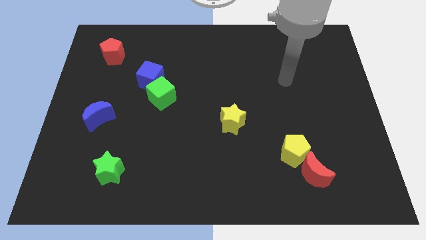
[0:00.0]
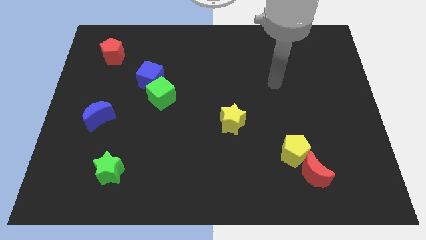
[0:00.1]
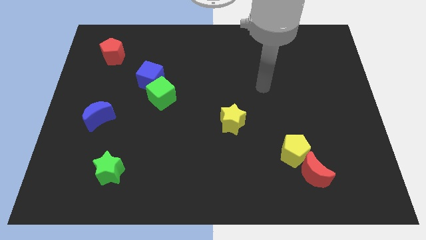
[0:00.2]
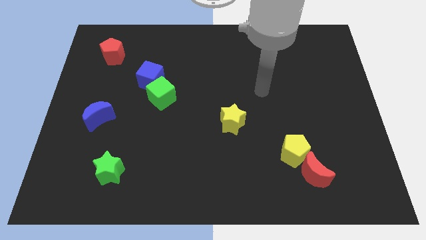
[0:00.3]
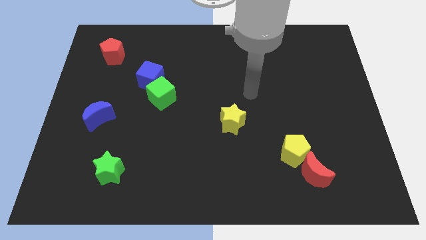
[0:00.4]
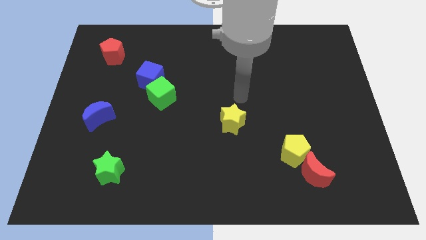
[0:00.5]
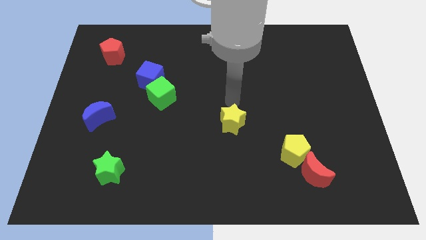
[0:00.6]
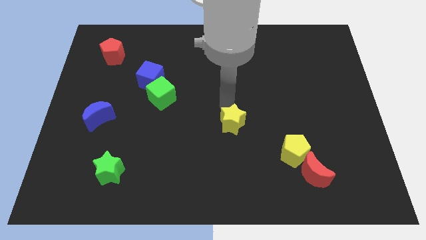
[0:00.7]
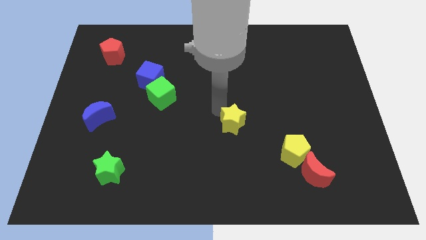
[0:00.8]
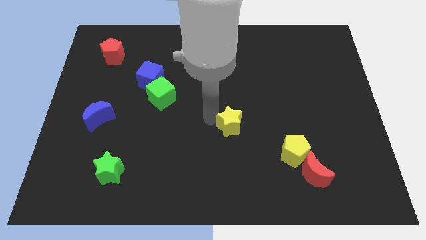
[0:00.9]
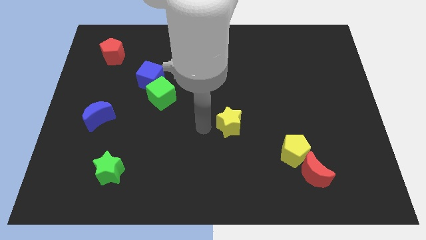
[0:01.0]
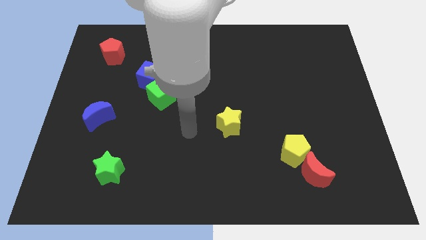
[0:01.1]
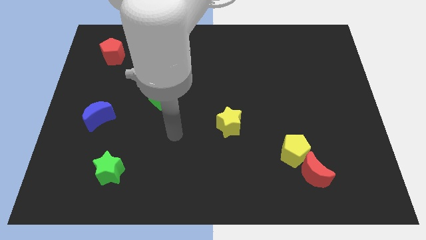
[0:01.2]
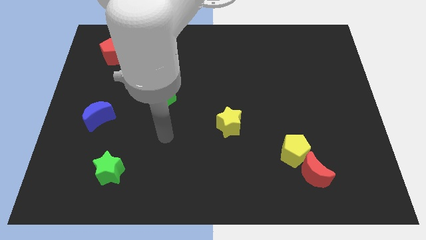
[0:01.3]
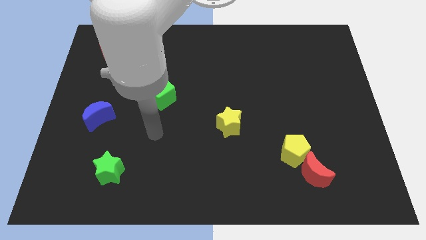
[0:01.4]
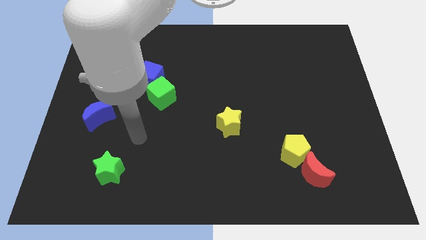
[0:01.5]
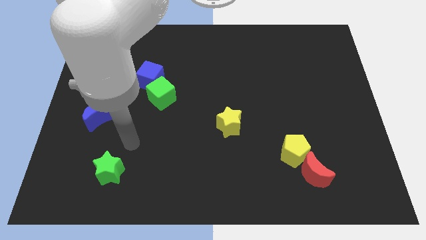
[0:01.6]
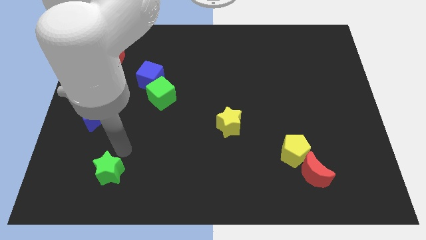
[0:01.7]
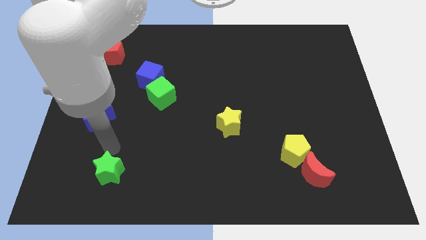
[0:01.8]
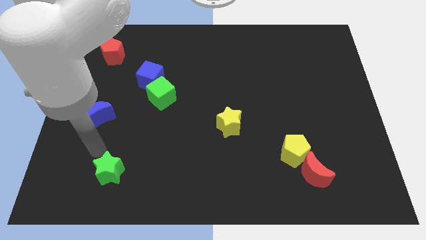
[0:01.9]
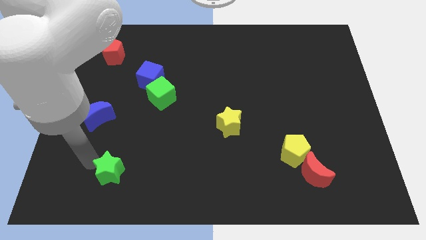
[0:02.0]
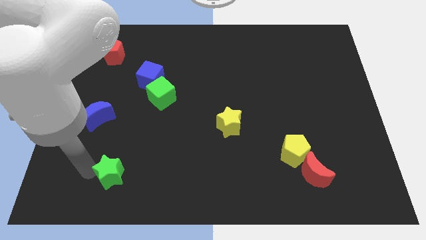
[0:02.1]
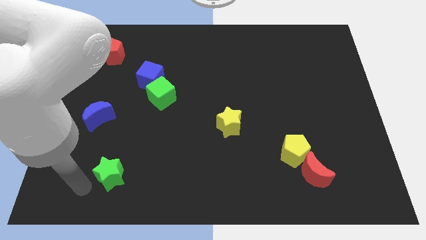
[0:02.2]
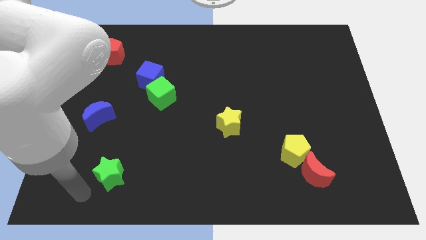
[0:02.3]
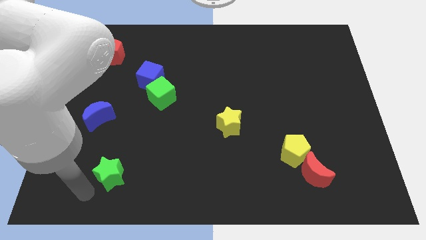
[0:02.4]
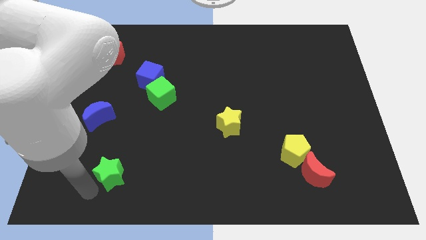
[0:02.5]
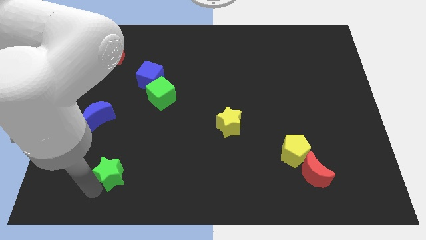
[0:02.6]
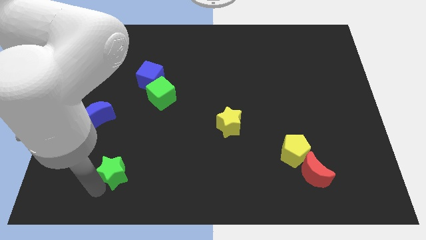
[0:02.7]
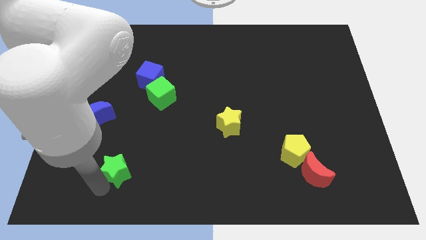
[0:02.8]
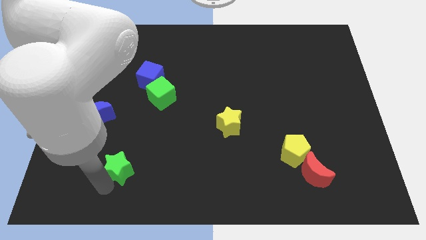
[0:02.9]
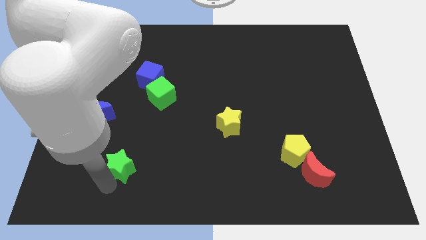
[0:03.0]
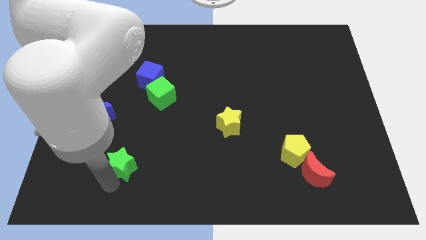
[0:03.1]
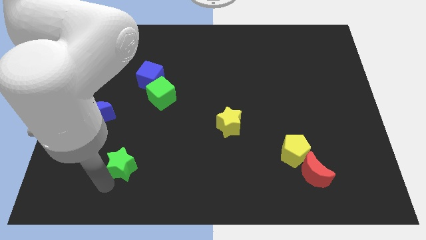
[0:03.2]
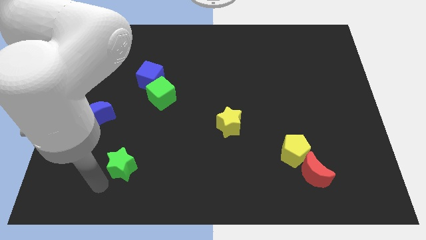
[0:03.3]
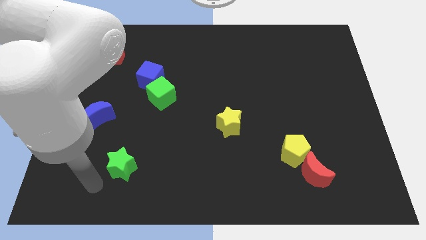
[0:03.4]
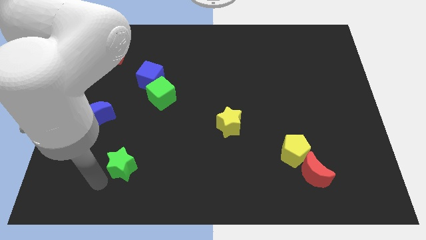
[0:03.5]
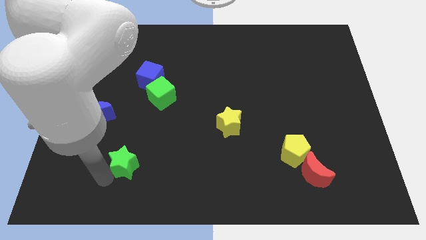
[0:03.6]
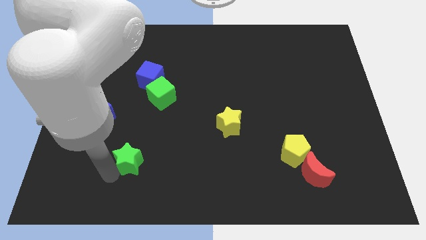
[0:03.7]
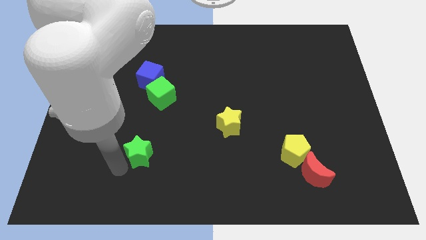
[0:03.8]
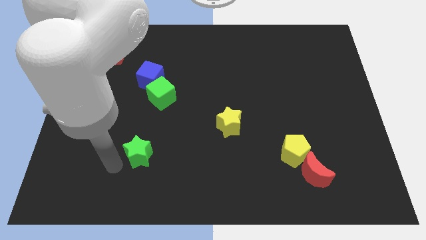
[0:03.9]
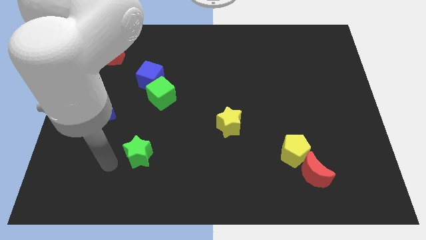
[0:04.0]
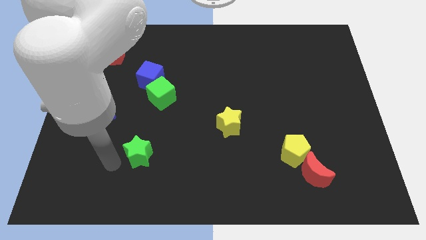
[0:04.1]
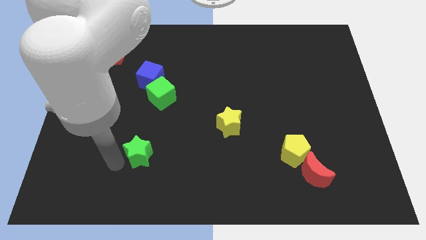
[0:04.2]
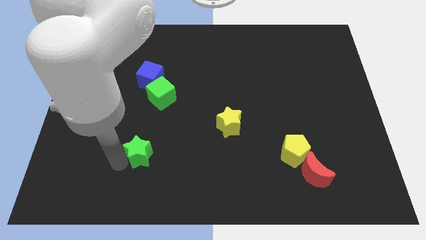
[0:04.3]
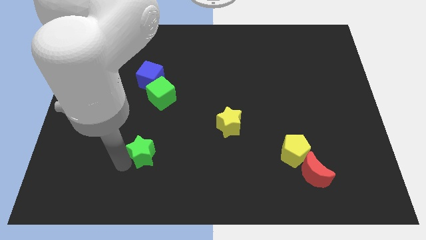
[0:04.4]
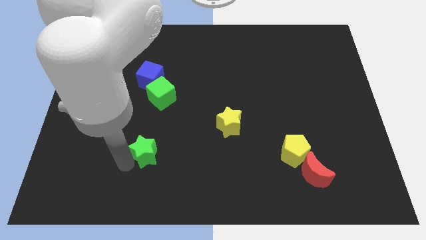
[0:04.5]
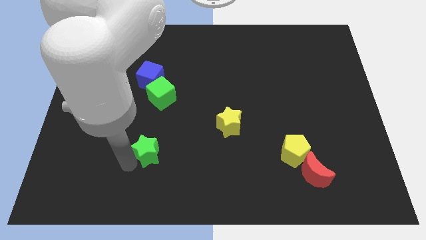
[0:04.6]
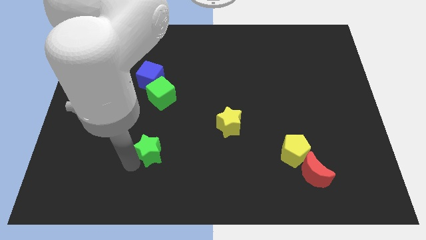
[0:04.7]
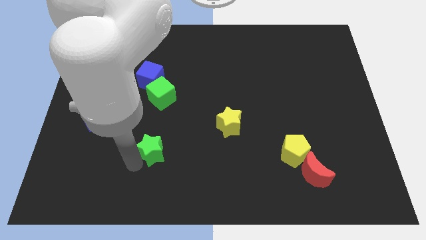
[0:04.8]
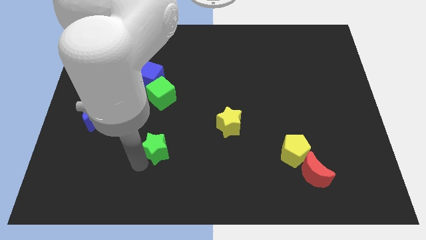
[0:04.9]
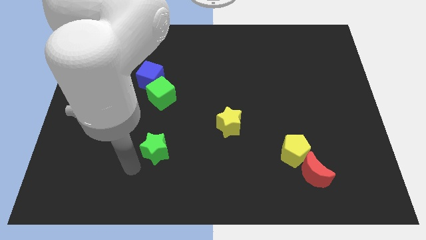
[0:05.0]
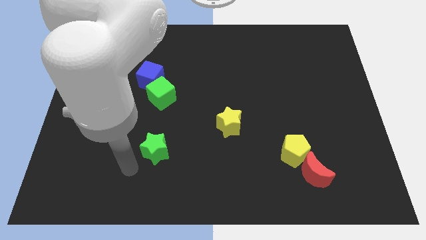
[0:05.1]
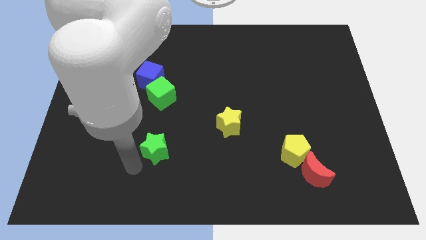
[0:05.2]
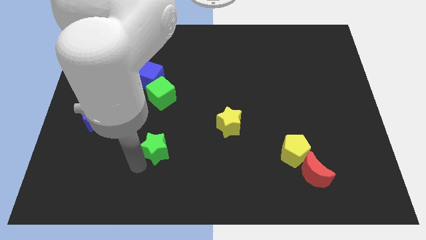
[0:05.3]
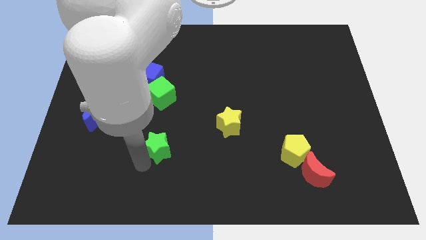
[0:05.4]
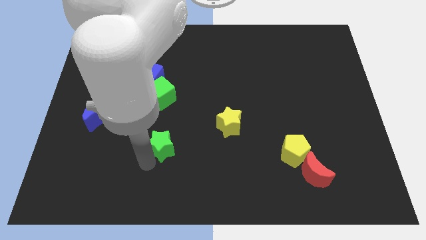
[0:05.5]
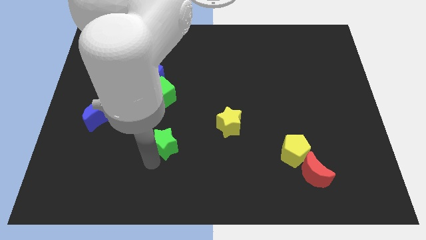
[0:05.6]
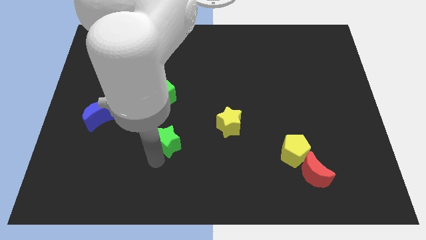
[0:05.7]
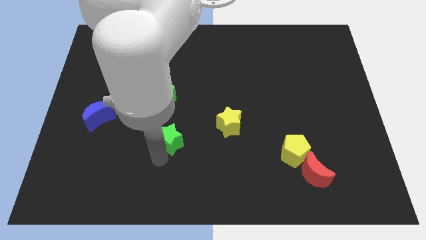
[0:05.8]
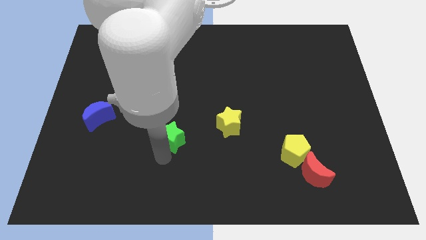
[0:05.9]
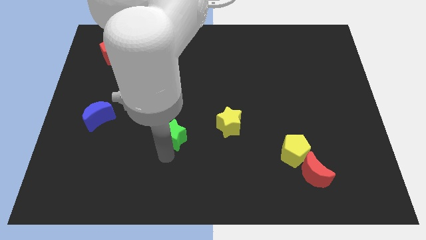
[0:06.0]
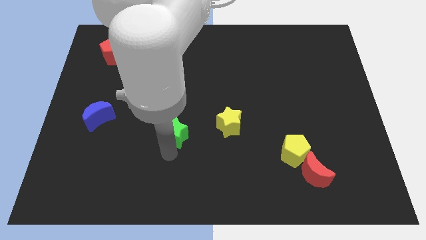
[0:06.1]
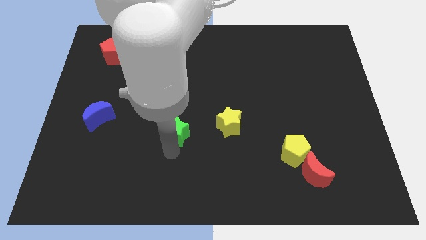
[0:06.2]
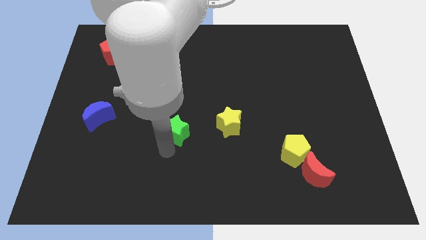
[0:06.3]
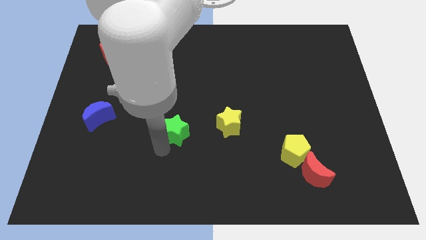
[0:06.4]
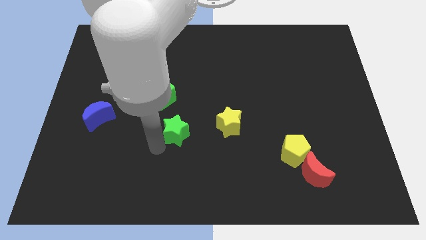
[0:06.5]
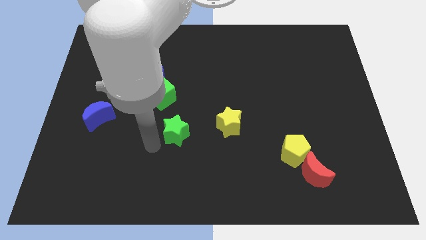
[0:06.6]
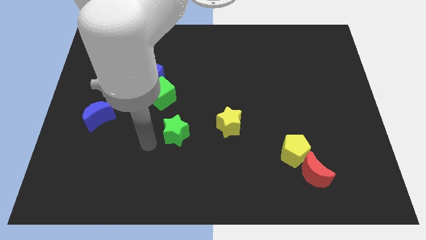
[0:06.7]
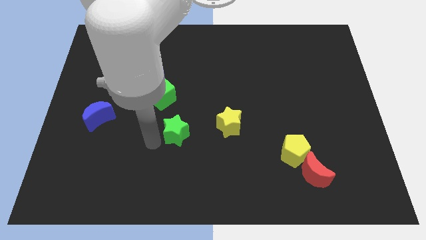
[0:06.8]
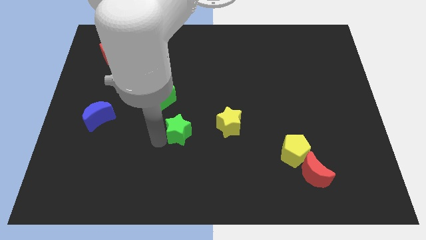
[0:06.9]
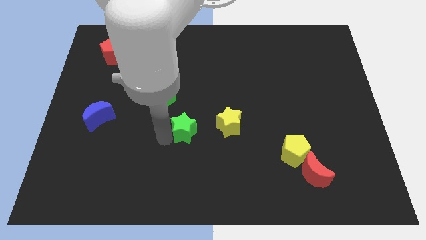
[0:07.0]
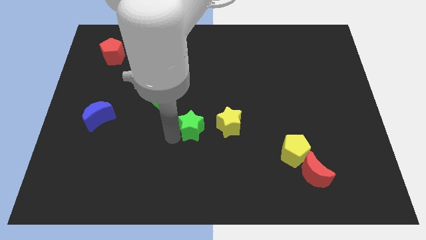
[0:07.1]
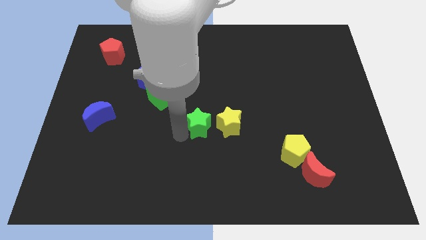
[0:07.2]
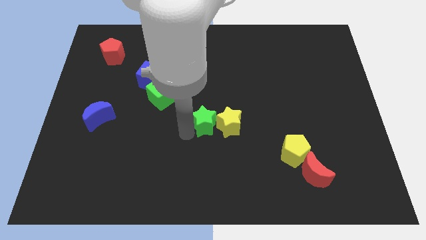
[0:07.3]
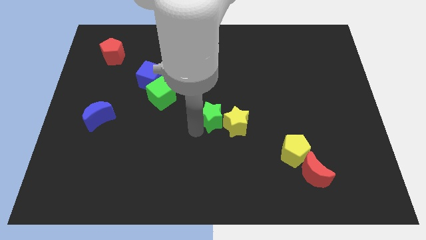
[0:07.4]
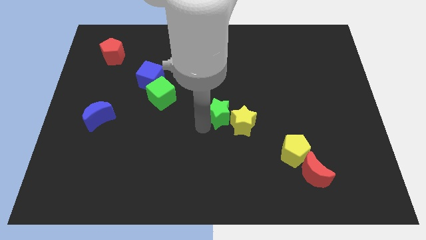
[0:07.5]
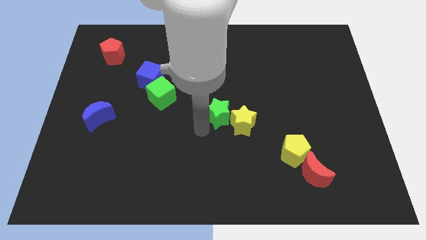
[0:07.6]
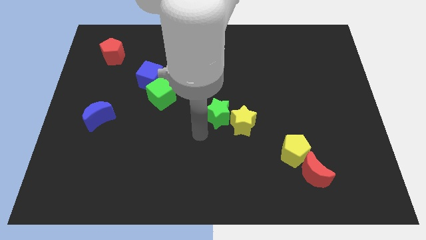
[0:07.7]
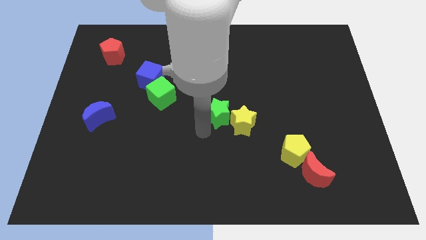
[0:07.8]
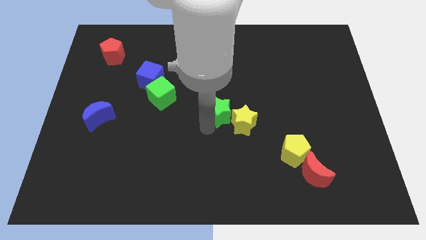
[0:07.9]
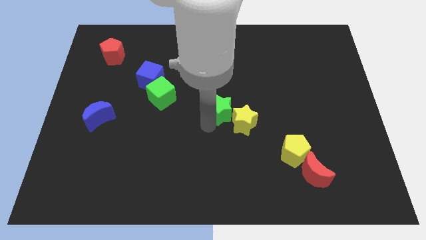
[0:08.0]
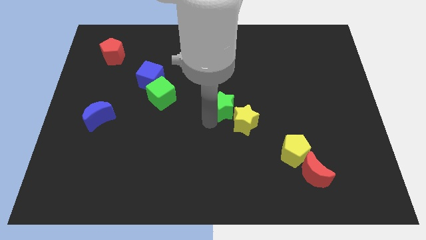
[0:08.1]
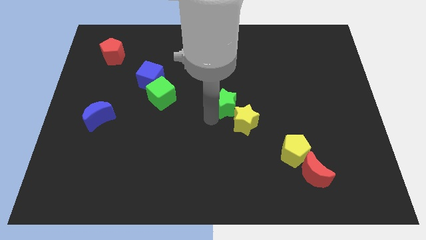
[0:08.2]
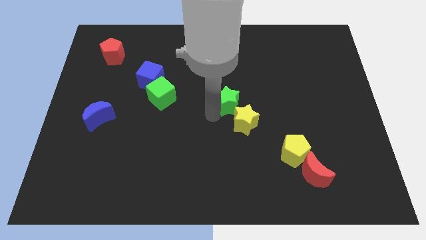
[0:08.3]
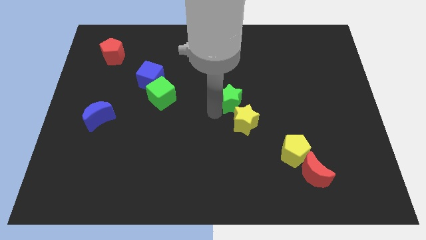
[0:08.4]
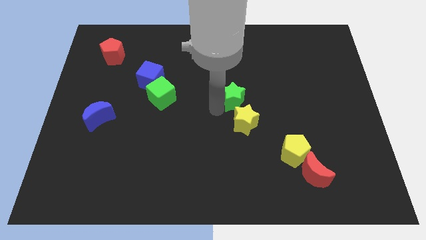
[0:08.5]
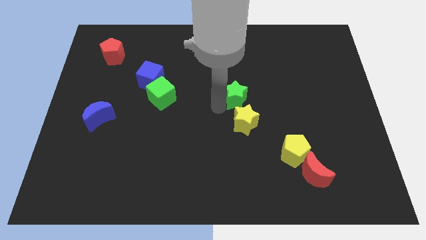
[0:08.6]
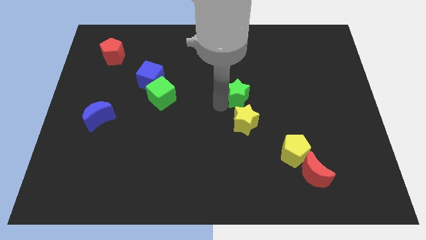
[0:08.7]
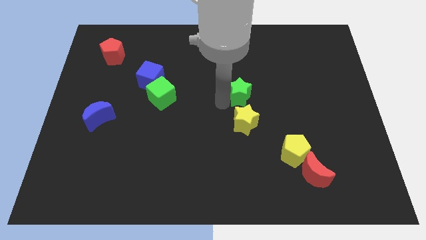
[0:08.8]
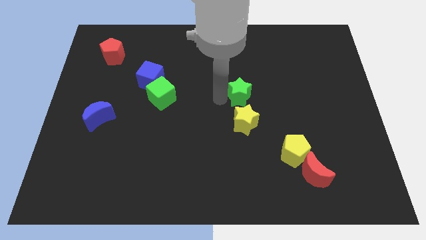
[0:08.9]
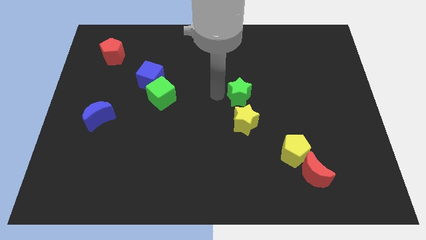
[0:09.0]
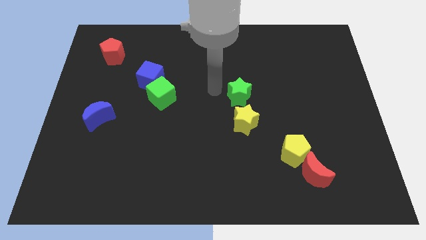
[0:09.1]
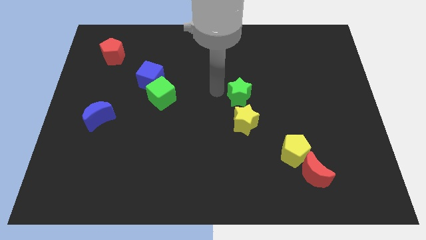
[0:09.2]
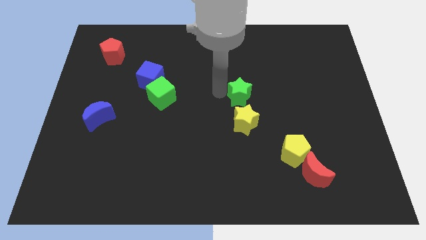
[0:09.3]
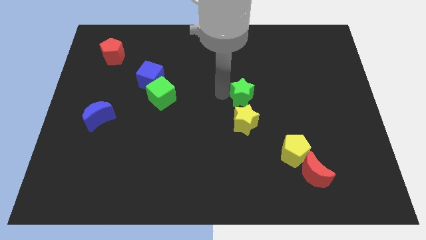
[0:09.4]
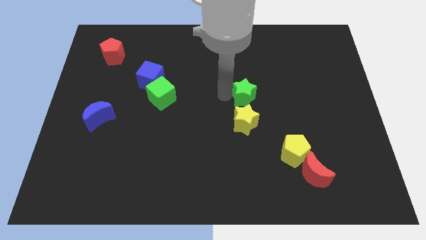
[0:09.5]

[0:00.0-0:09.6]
put the green star to the top right of the yellow star
